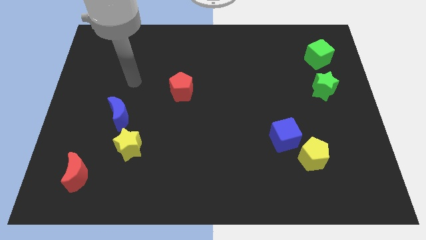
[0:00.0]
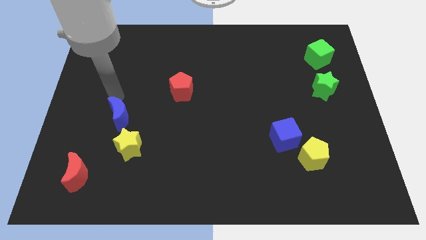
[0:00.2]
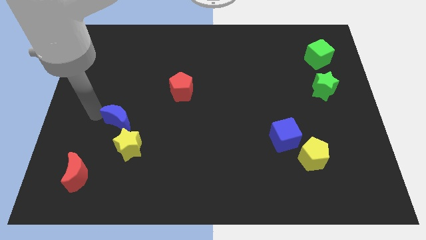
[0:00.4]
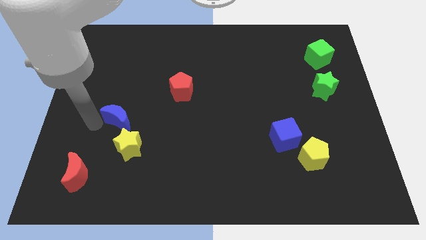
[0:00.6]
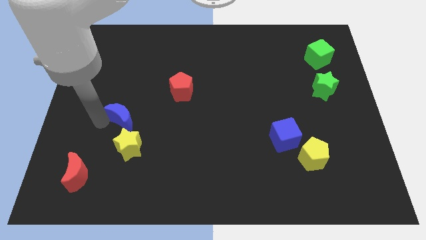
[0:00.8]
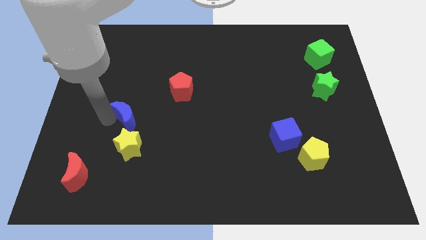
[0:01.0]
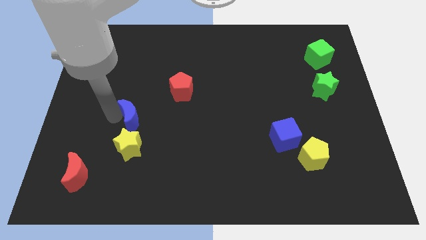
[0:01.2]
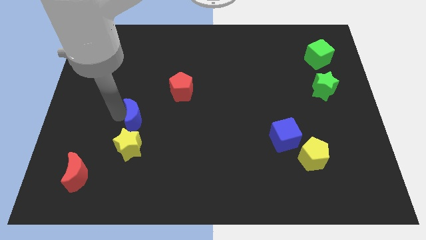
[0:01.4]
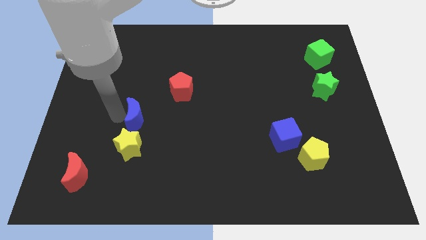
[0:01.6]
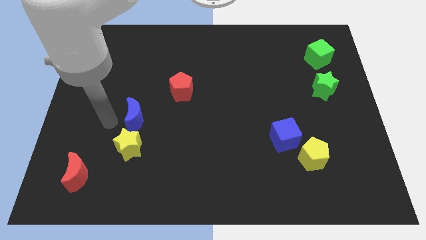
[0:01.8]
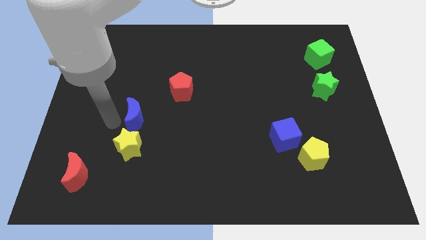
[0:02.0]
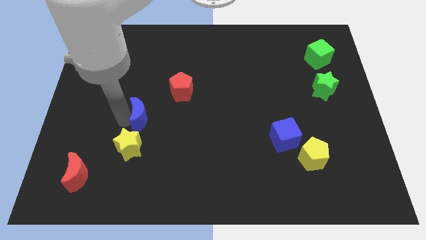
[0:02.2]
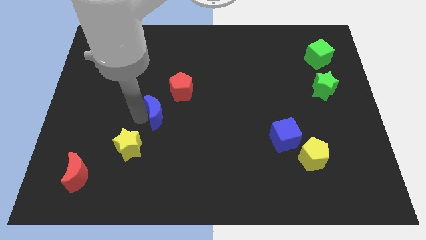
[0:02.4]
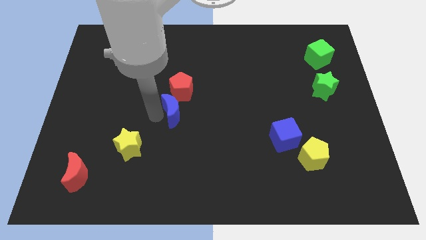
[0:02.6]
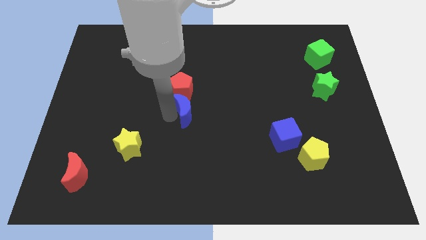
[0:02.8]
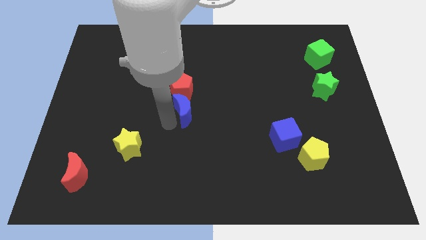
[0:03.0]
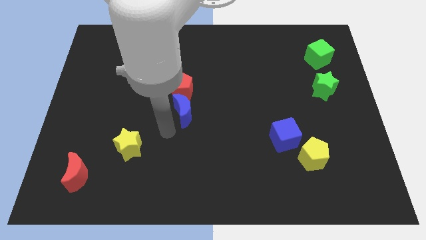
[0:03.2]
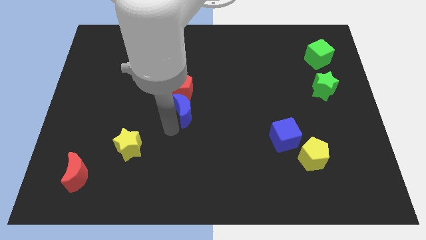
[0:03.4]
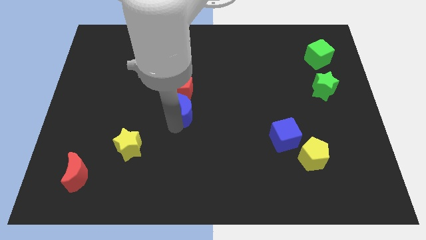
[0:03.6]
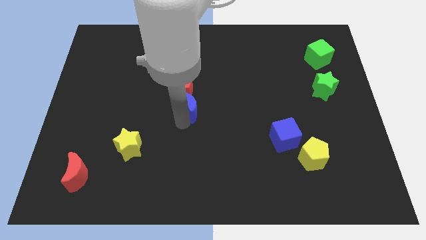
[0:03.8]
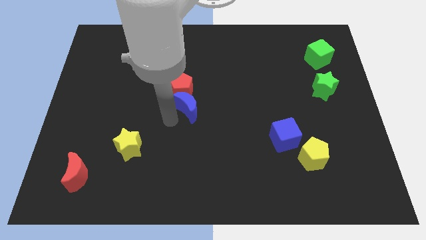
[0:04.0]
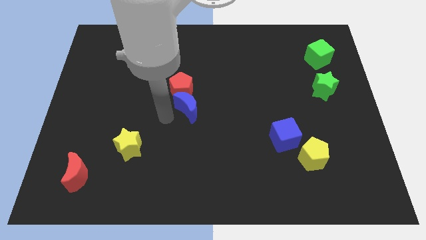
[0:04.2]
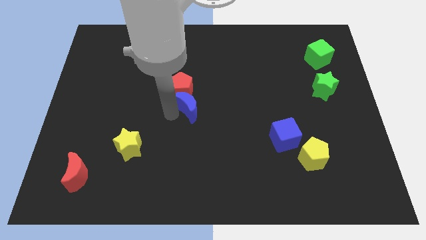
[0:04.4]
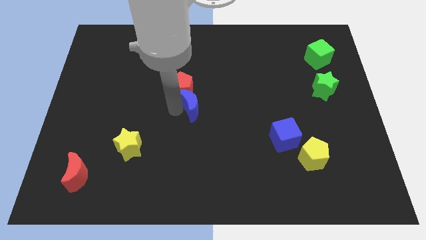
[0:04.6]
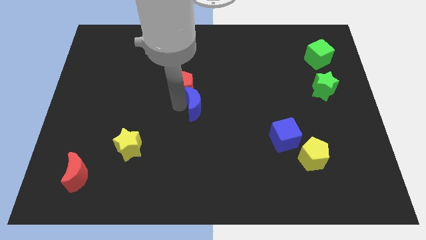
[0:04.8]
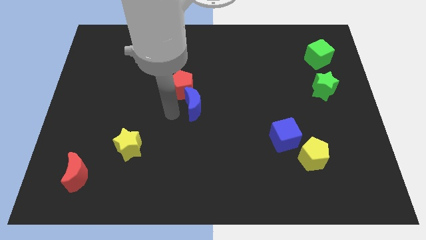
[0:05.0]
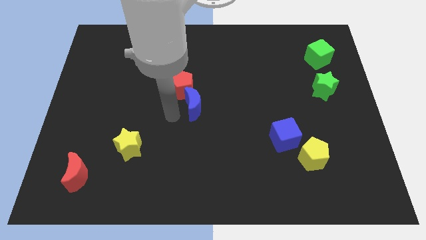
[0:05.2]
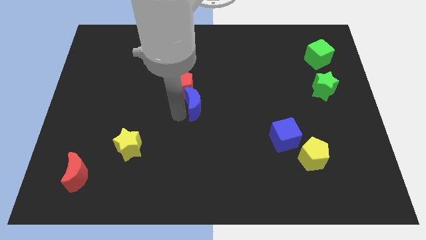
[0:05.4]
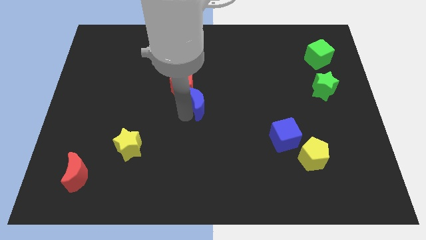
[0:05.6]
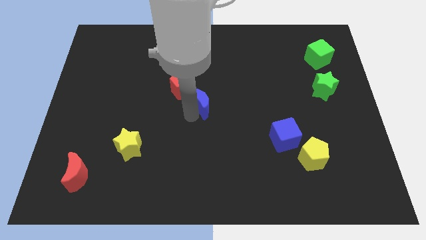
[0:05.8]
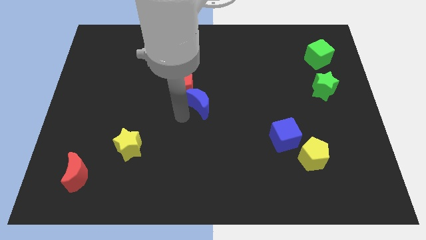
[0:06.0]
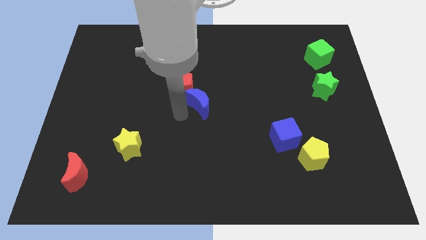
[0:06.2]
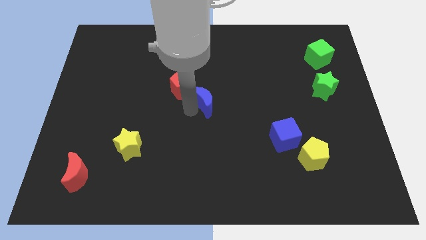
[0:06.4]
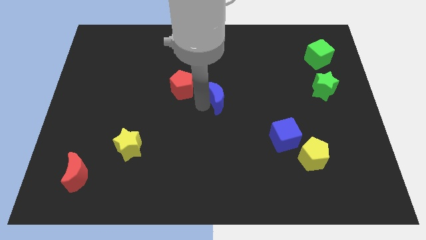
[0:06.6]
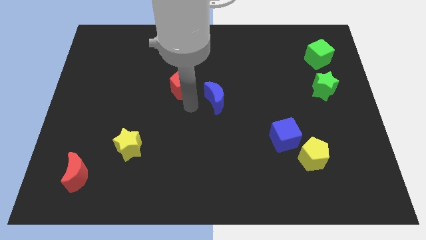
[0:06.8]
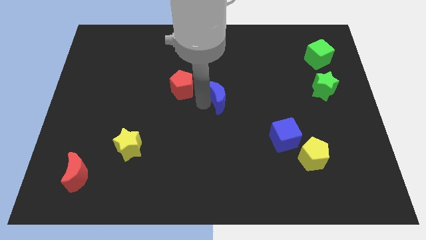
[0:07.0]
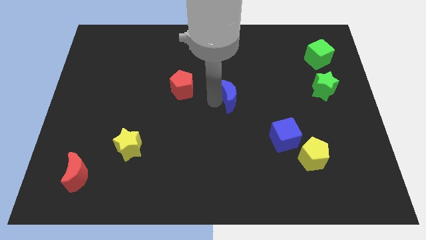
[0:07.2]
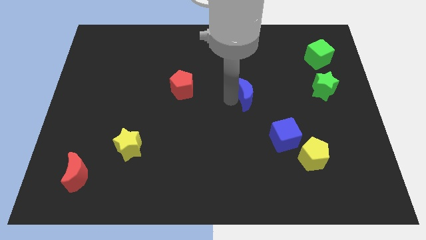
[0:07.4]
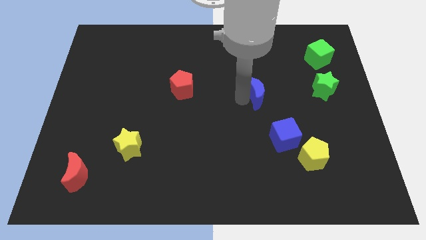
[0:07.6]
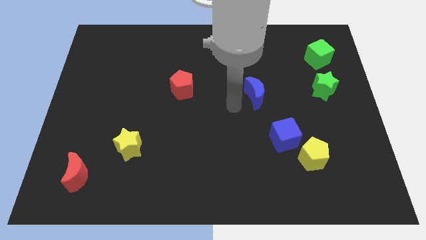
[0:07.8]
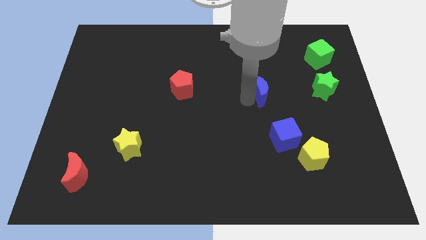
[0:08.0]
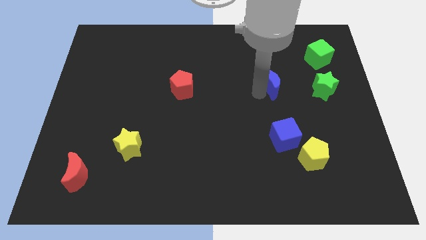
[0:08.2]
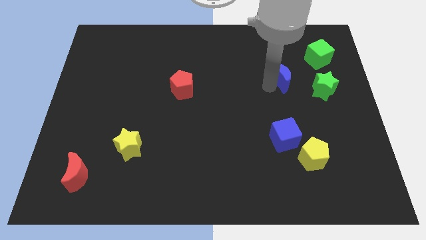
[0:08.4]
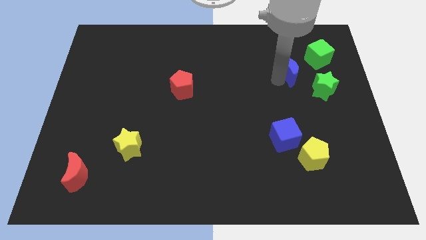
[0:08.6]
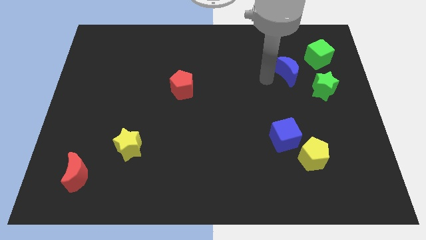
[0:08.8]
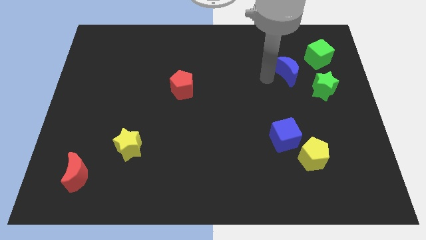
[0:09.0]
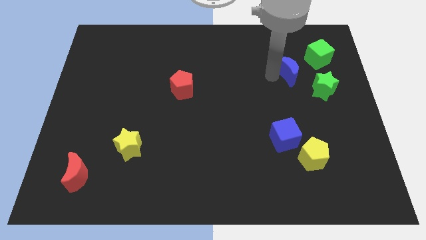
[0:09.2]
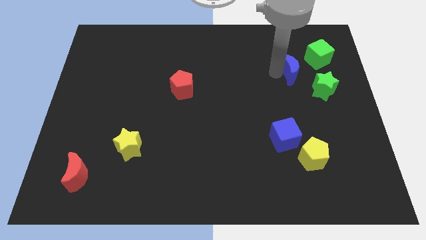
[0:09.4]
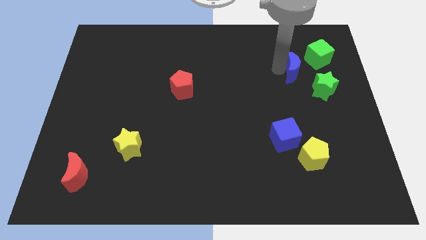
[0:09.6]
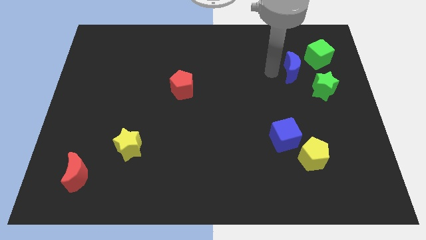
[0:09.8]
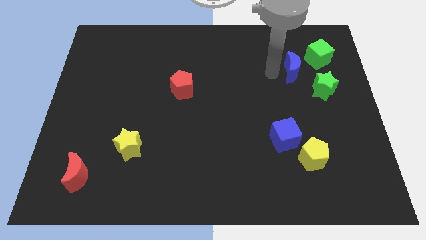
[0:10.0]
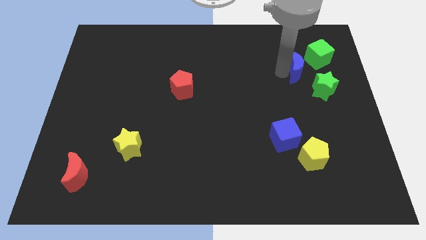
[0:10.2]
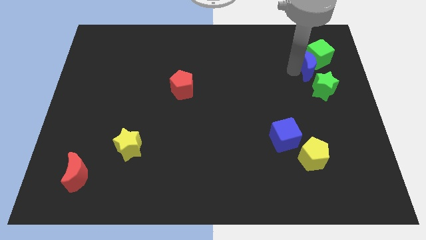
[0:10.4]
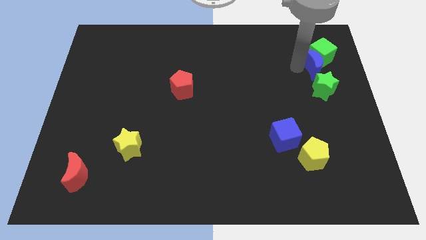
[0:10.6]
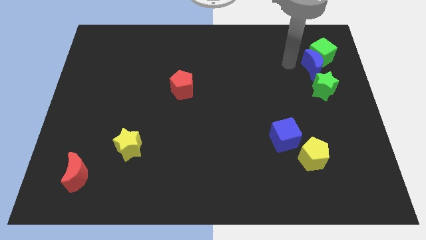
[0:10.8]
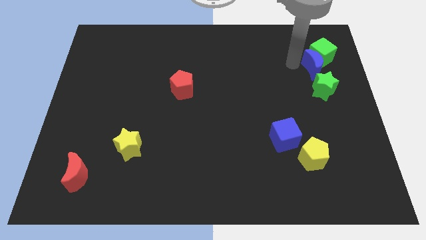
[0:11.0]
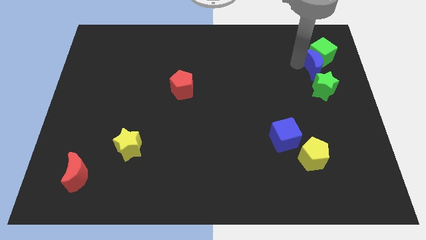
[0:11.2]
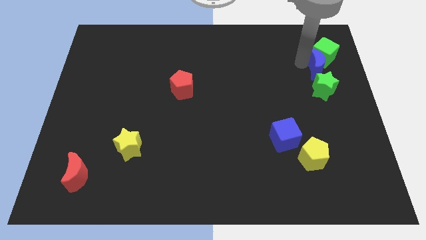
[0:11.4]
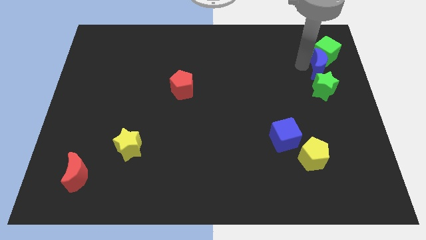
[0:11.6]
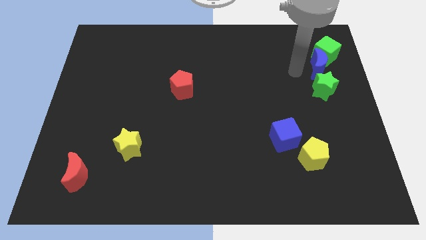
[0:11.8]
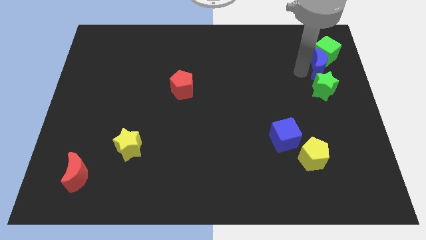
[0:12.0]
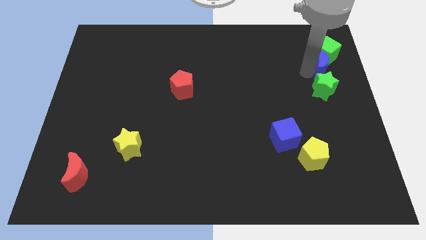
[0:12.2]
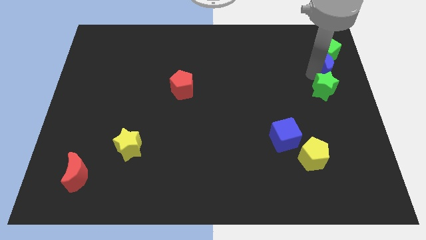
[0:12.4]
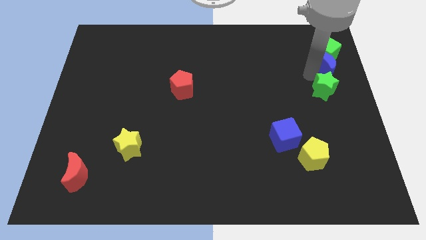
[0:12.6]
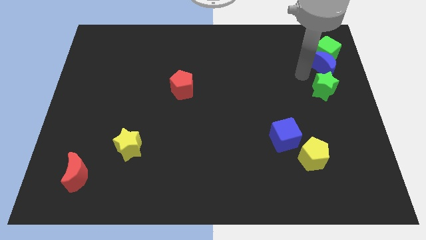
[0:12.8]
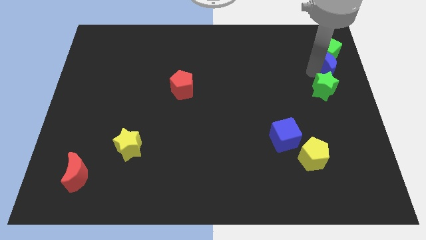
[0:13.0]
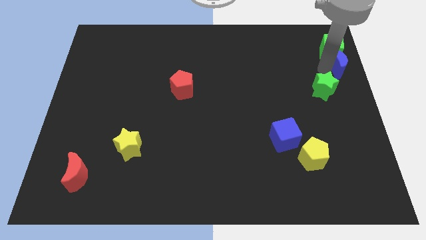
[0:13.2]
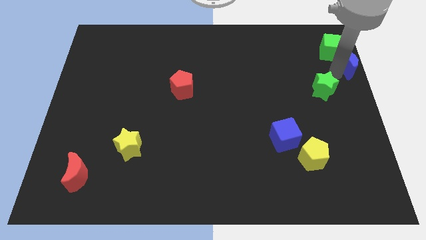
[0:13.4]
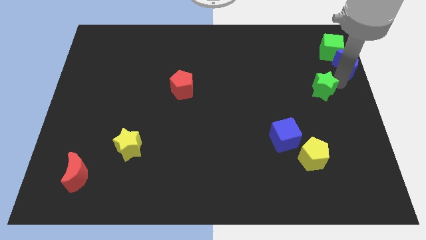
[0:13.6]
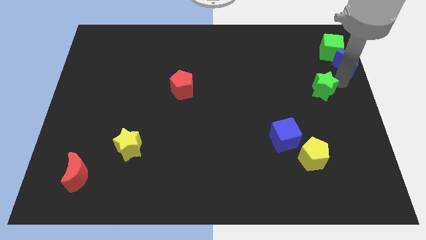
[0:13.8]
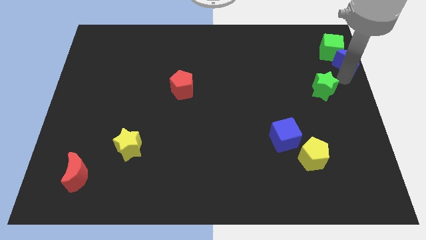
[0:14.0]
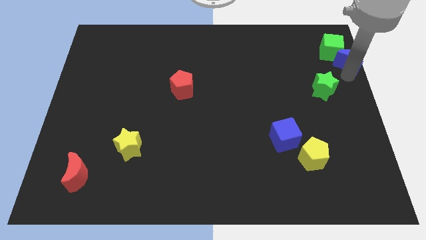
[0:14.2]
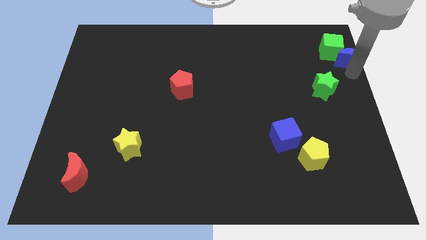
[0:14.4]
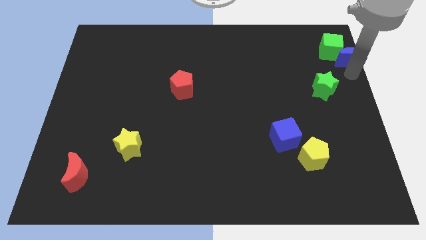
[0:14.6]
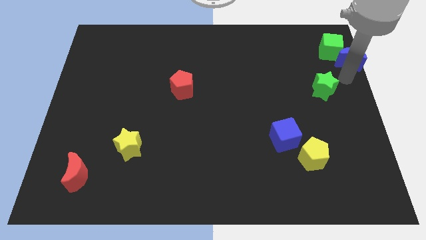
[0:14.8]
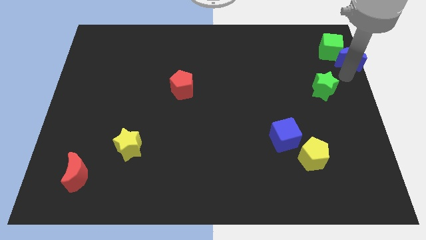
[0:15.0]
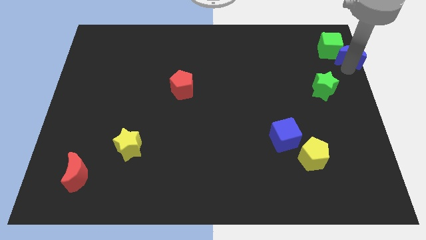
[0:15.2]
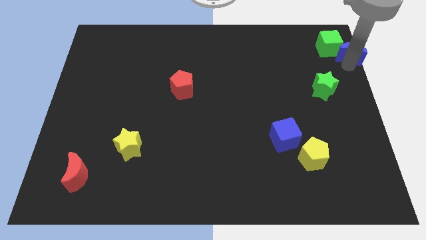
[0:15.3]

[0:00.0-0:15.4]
slide the blue moon to the upper right corner
